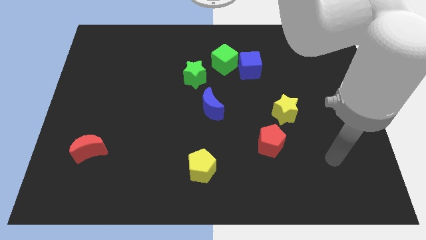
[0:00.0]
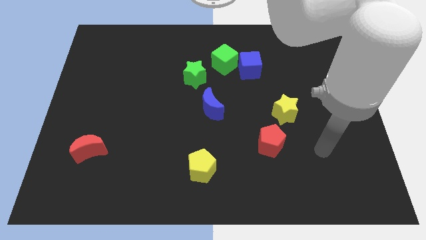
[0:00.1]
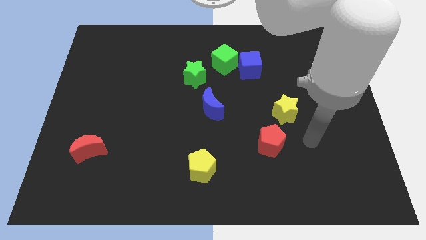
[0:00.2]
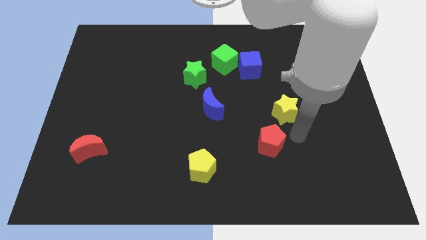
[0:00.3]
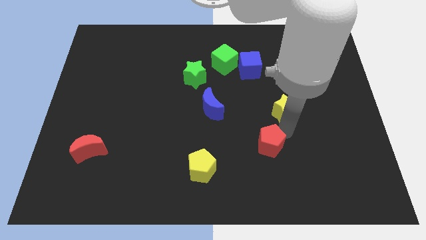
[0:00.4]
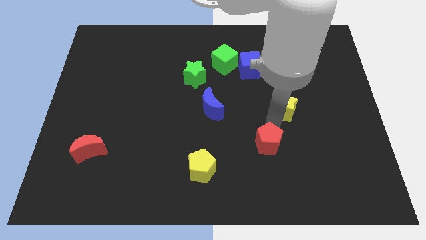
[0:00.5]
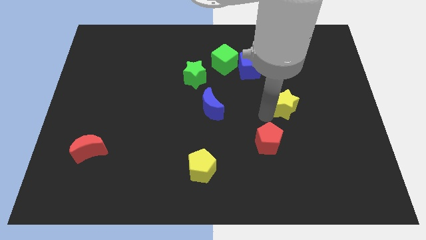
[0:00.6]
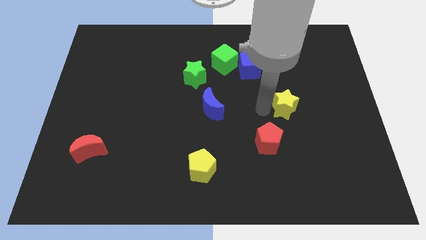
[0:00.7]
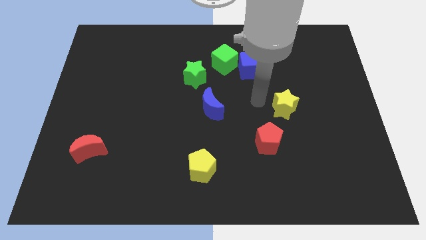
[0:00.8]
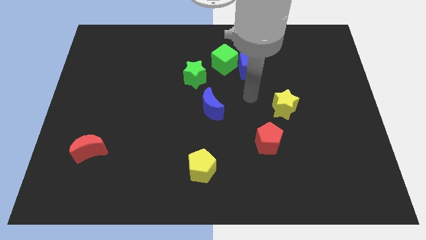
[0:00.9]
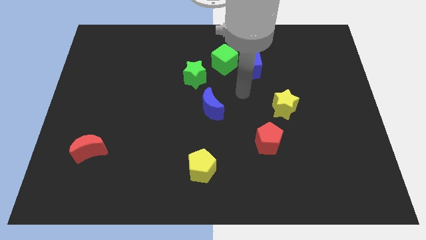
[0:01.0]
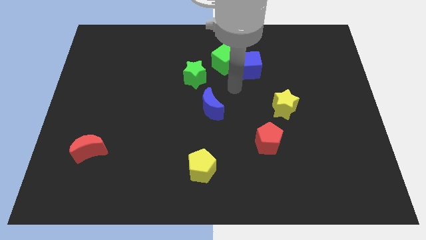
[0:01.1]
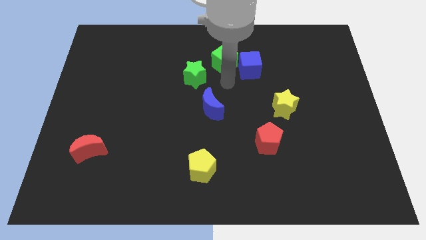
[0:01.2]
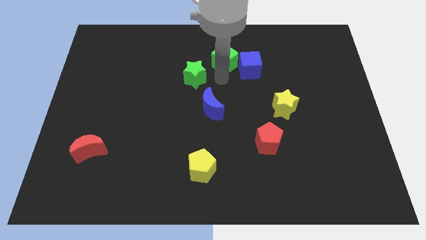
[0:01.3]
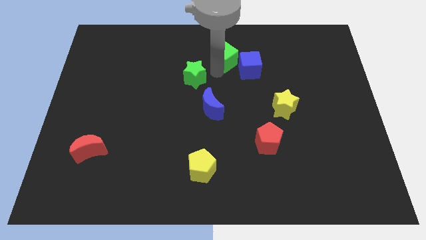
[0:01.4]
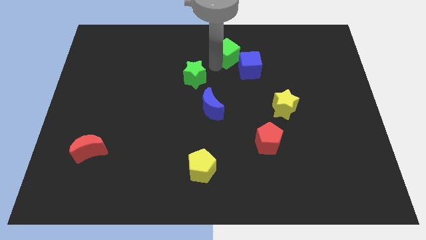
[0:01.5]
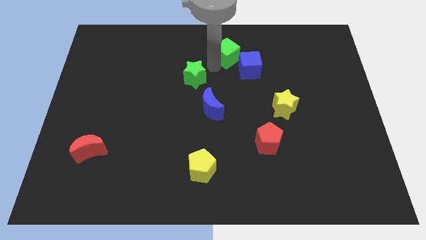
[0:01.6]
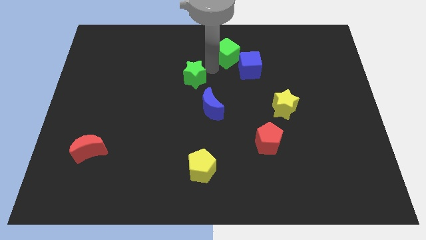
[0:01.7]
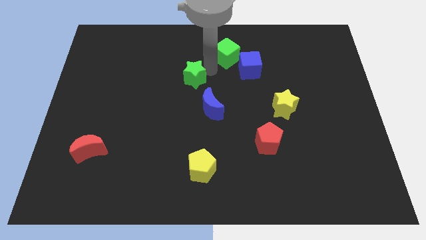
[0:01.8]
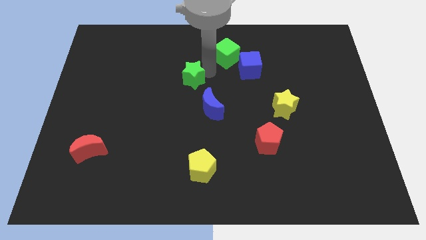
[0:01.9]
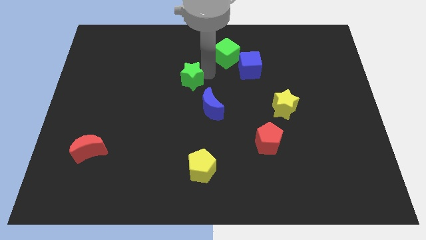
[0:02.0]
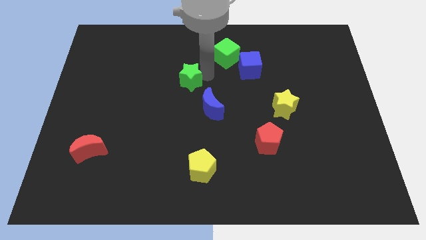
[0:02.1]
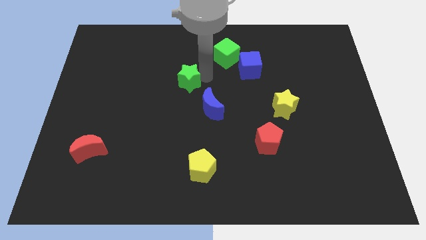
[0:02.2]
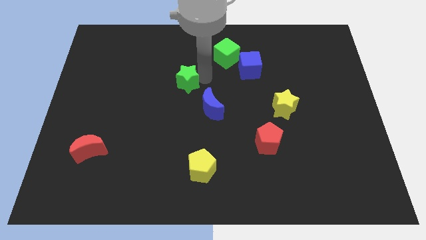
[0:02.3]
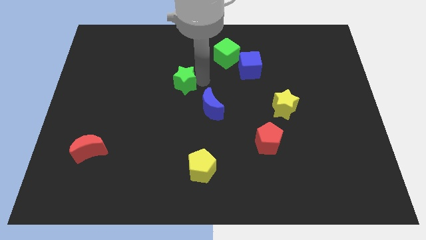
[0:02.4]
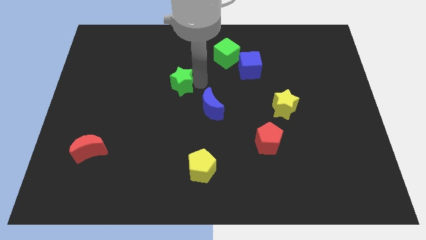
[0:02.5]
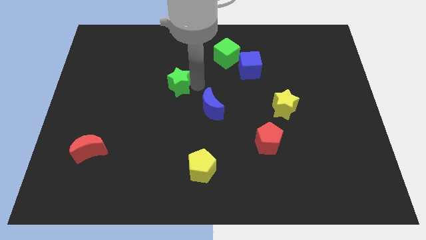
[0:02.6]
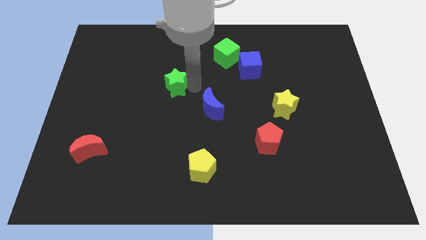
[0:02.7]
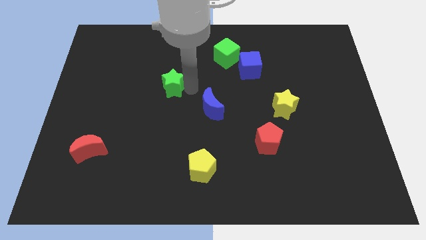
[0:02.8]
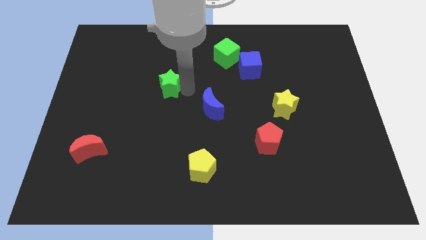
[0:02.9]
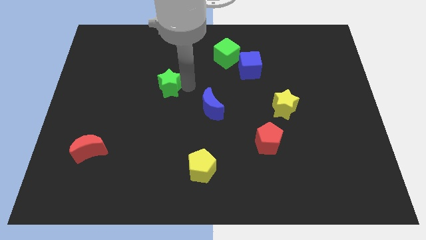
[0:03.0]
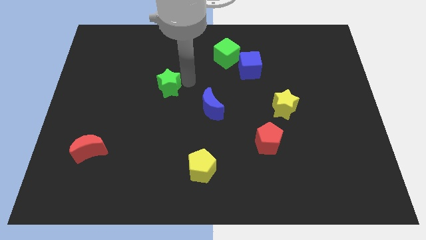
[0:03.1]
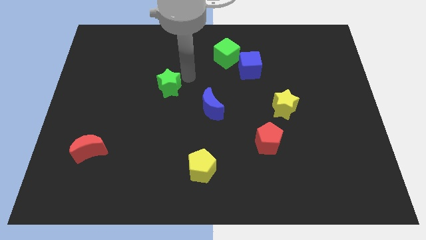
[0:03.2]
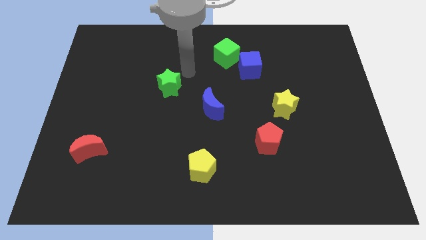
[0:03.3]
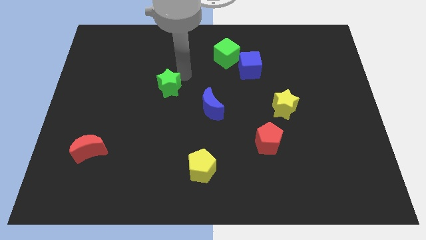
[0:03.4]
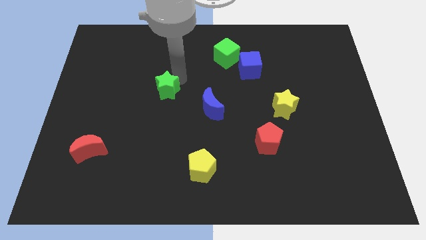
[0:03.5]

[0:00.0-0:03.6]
slide the green star downwards and to the left diagonally a little bit

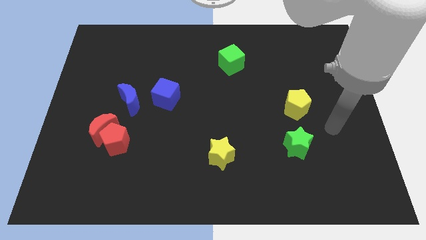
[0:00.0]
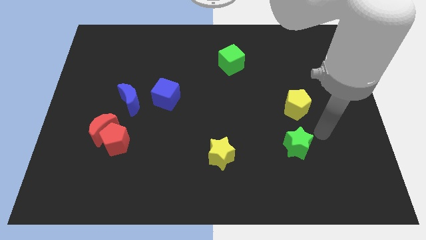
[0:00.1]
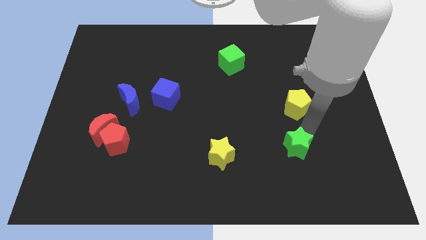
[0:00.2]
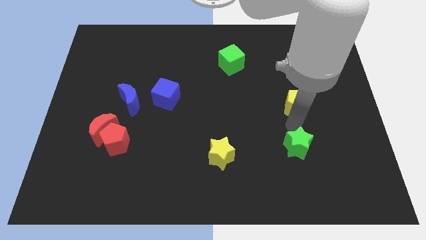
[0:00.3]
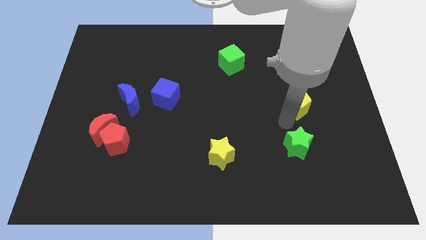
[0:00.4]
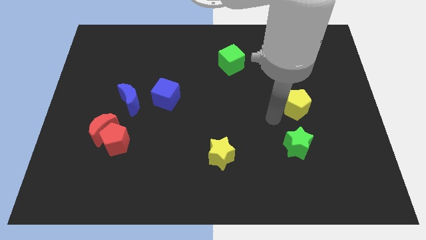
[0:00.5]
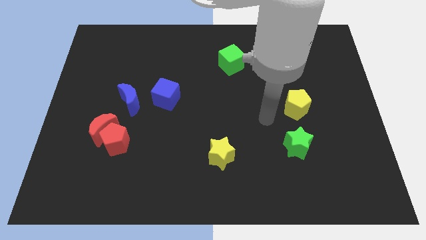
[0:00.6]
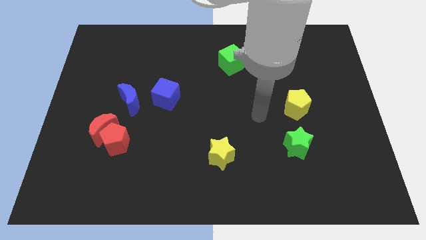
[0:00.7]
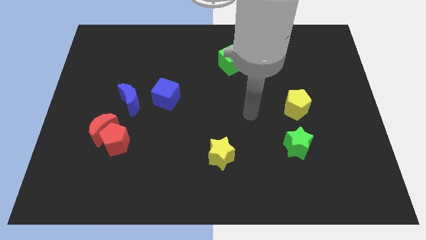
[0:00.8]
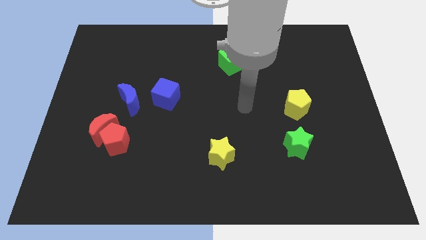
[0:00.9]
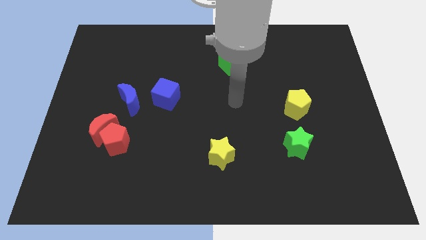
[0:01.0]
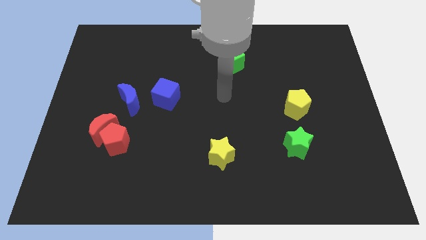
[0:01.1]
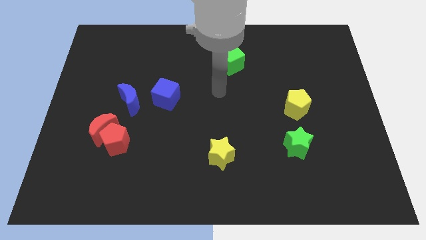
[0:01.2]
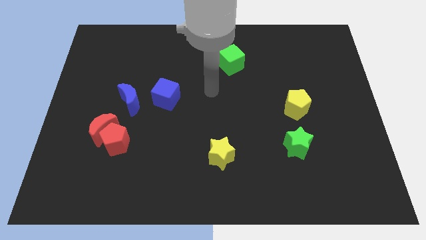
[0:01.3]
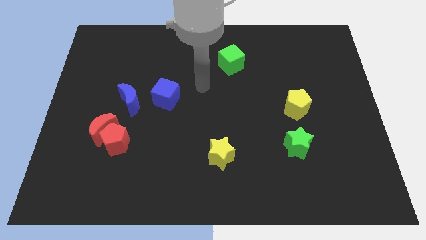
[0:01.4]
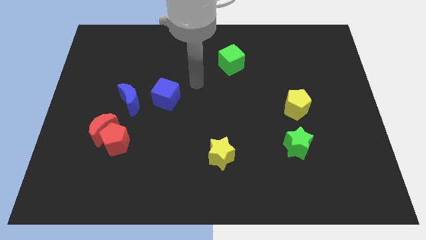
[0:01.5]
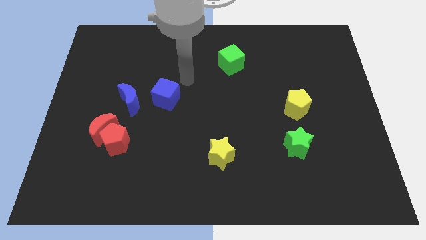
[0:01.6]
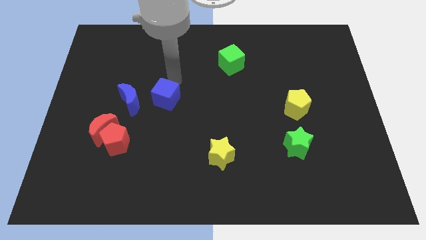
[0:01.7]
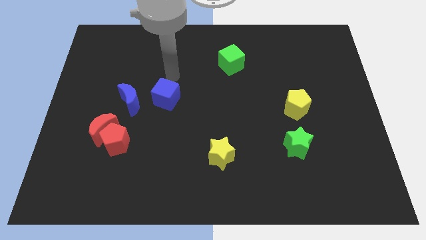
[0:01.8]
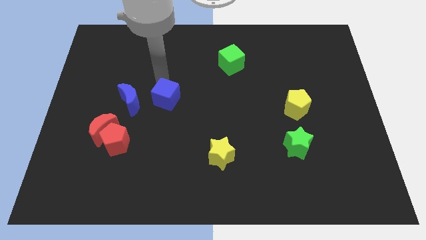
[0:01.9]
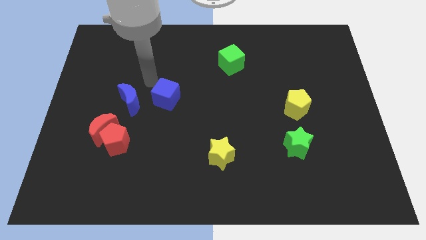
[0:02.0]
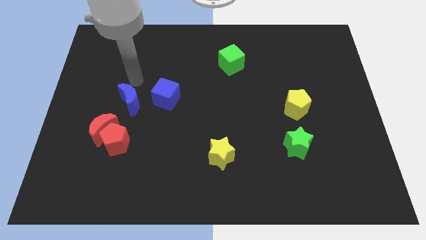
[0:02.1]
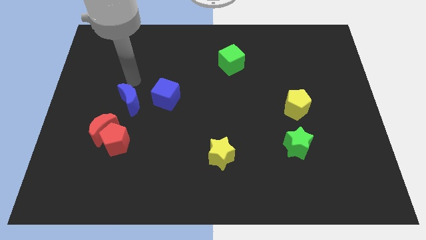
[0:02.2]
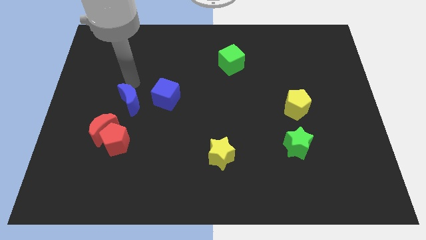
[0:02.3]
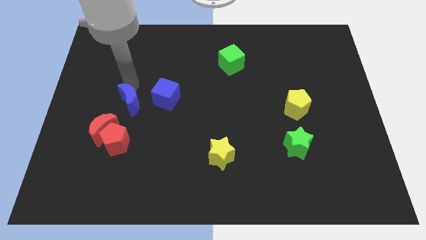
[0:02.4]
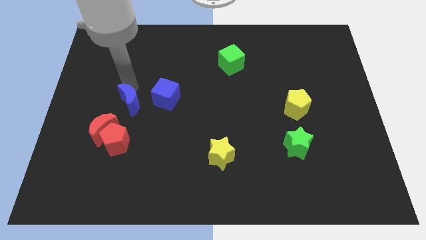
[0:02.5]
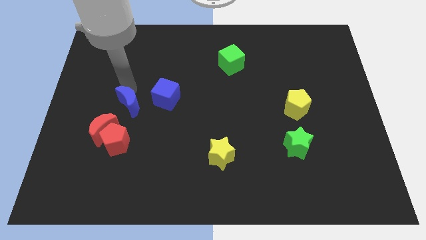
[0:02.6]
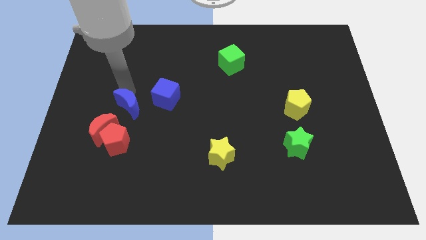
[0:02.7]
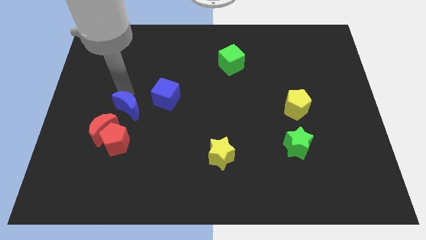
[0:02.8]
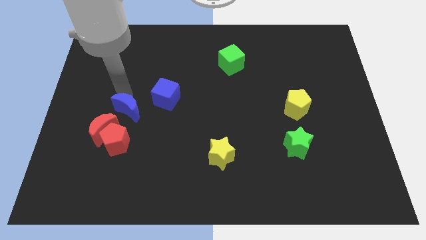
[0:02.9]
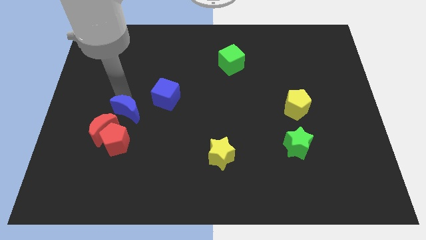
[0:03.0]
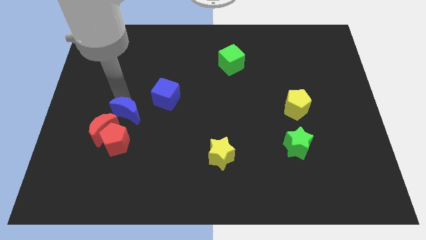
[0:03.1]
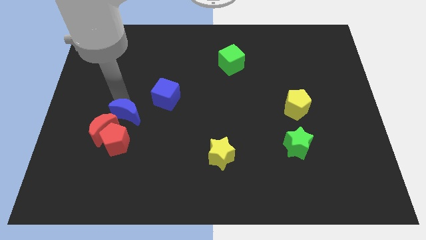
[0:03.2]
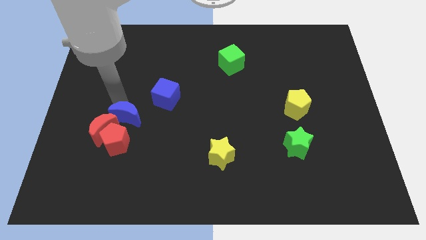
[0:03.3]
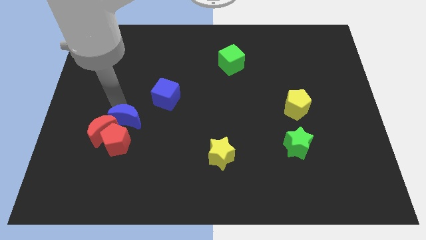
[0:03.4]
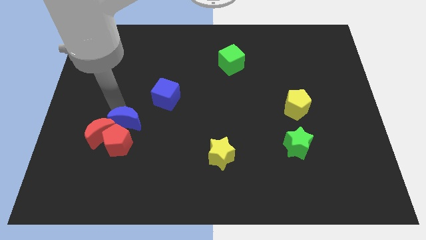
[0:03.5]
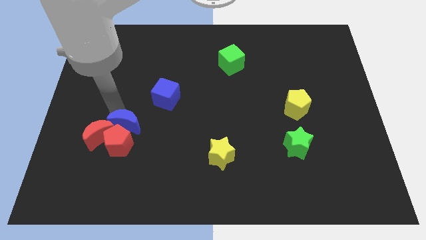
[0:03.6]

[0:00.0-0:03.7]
slide the blue moon a bit downwards

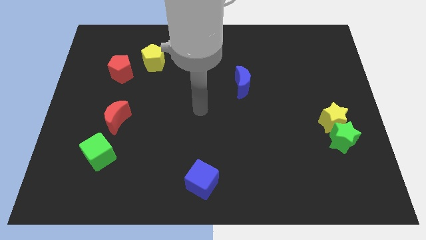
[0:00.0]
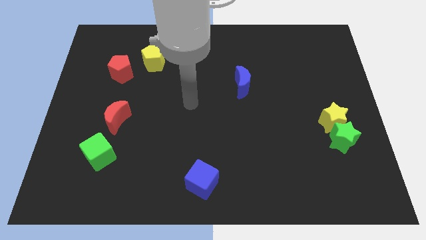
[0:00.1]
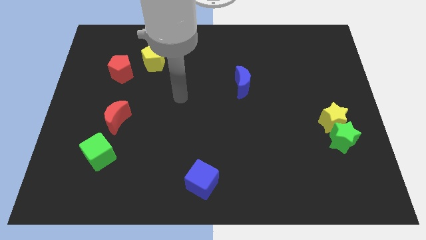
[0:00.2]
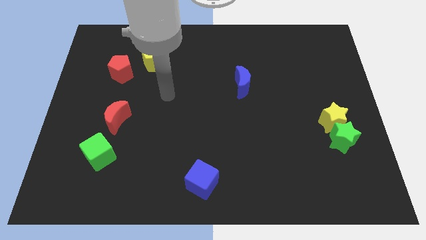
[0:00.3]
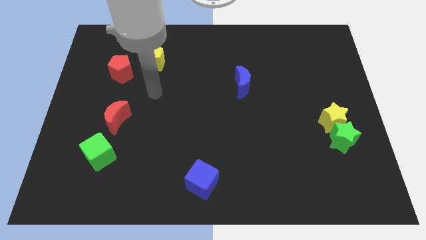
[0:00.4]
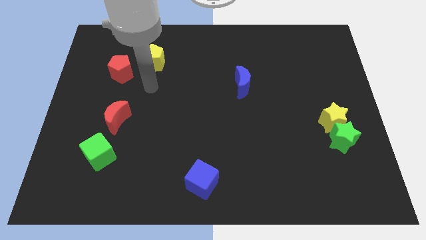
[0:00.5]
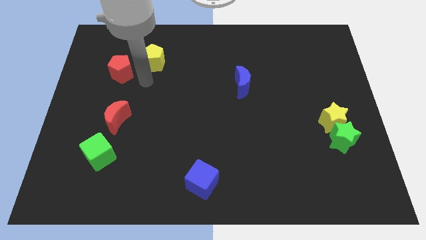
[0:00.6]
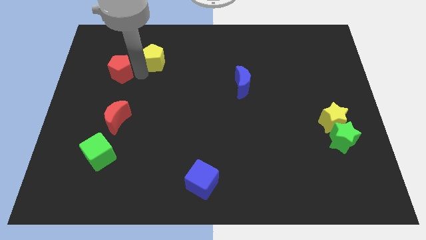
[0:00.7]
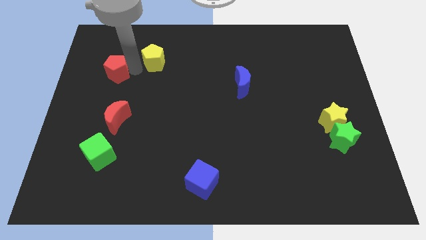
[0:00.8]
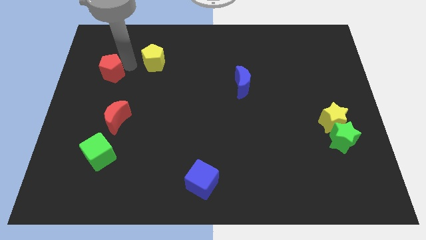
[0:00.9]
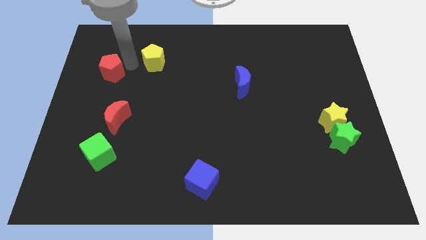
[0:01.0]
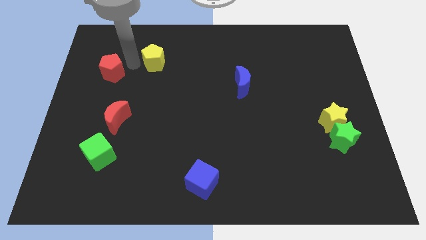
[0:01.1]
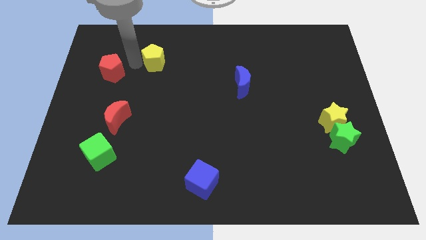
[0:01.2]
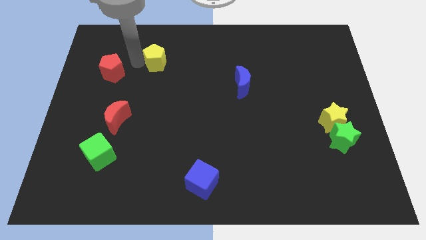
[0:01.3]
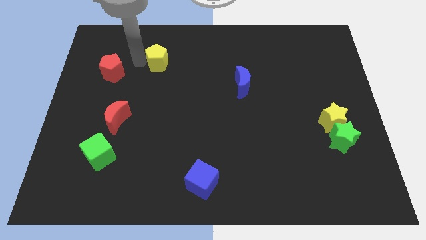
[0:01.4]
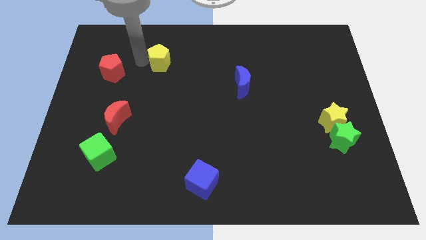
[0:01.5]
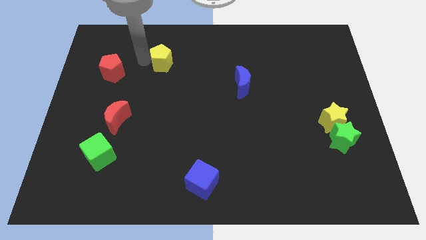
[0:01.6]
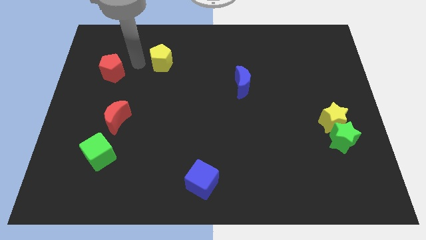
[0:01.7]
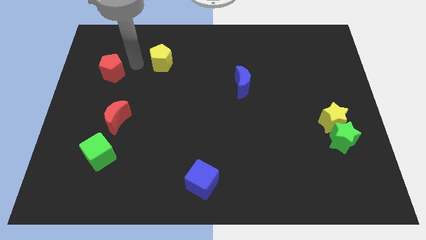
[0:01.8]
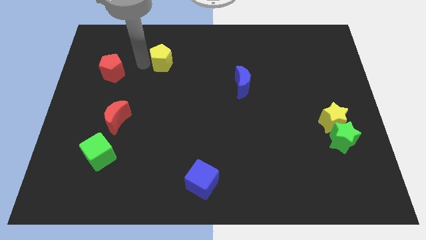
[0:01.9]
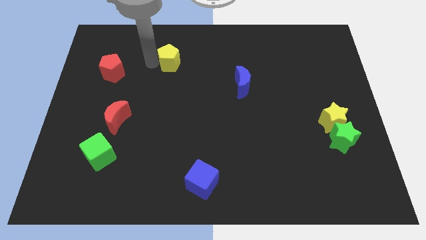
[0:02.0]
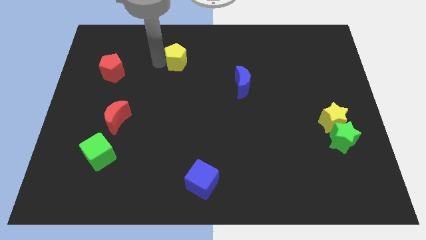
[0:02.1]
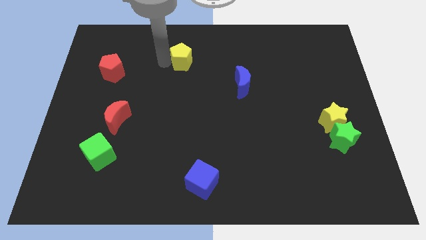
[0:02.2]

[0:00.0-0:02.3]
push the yellow pentagon to the right a little bit
